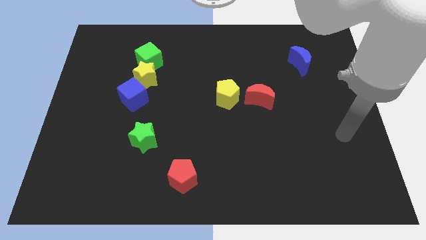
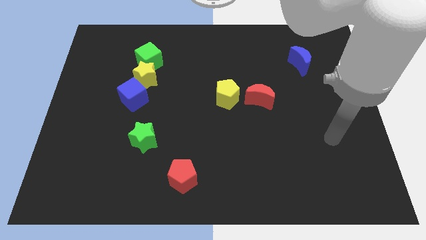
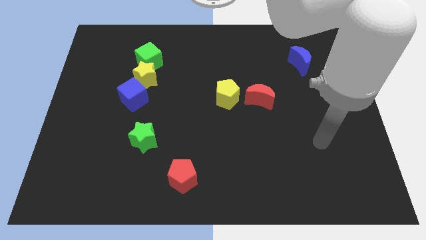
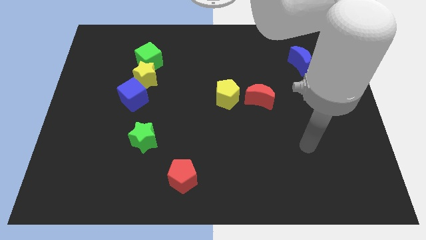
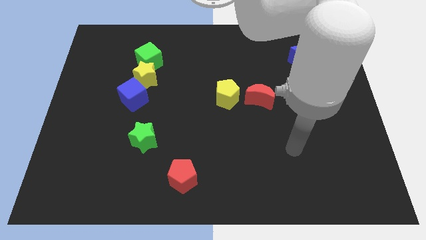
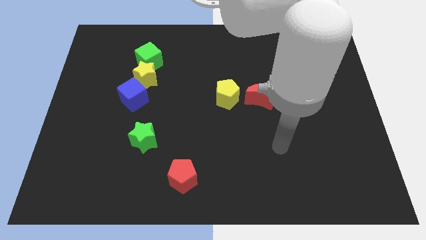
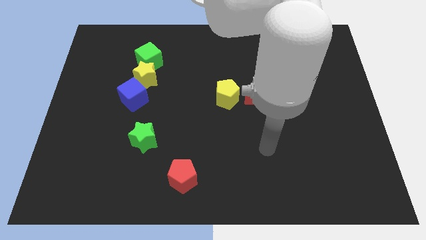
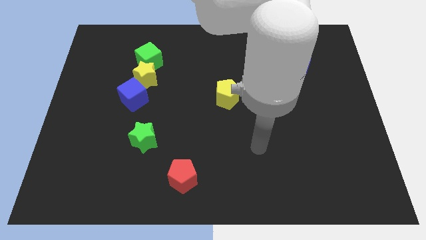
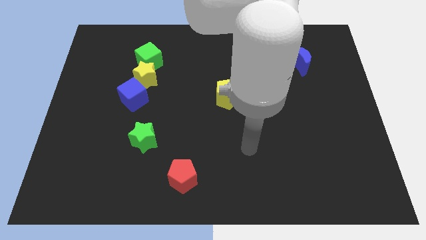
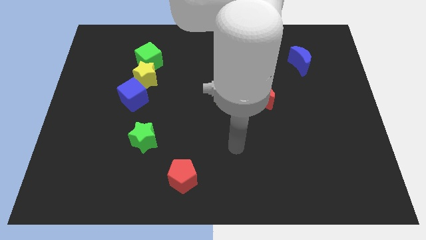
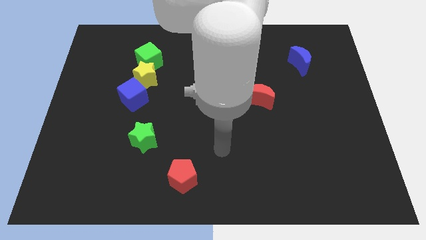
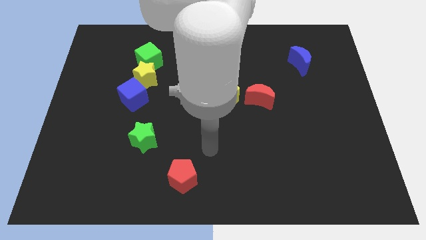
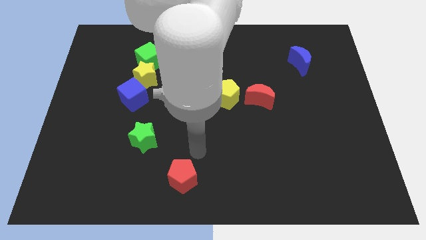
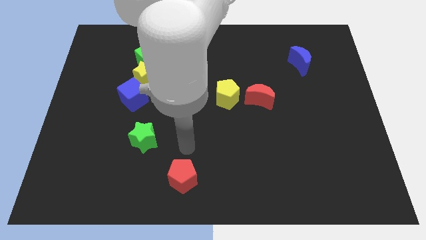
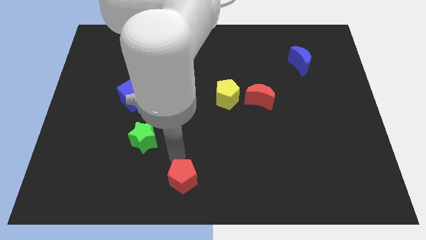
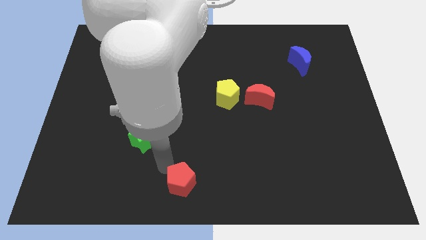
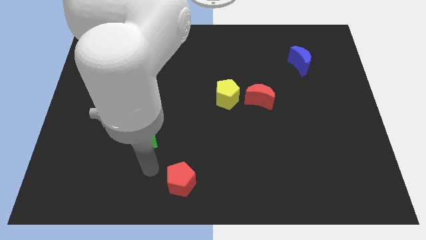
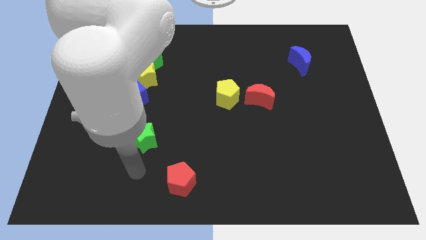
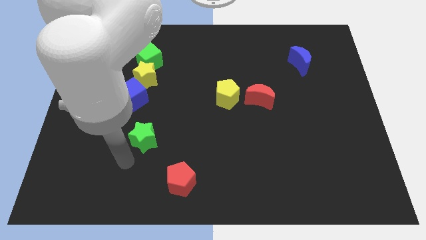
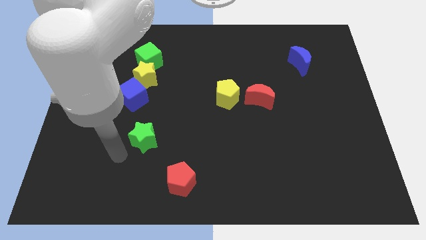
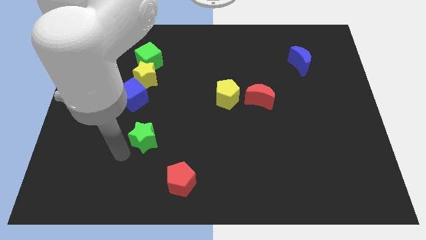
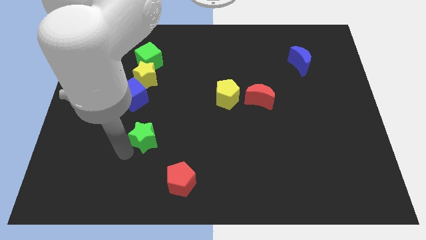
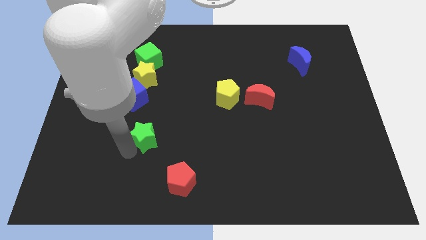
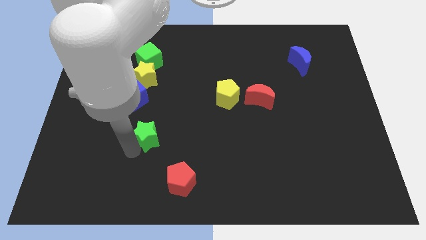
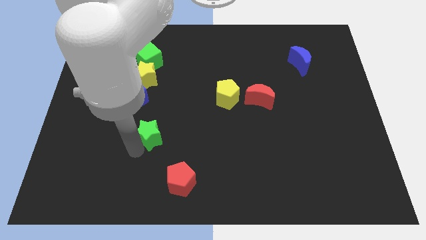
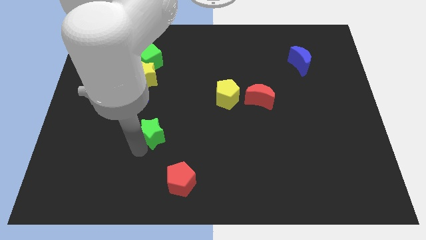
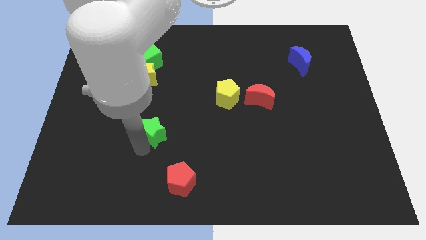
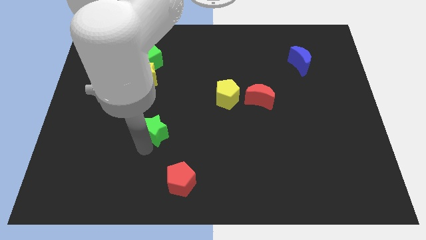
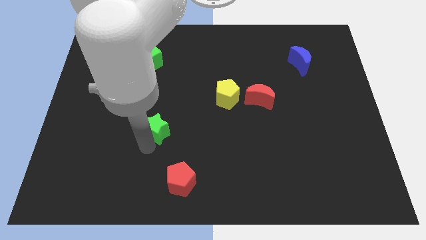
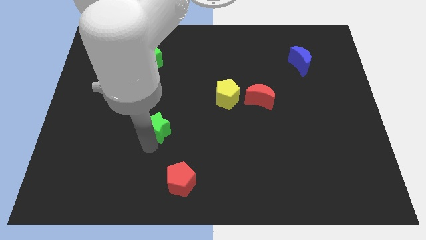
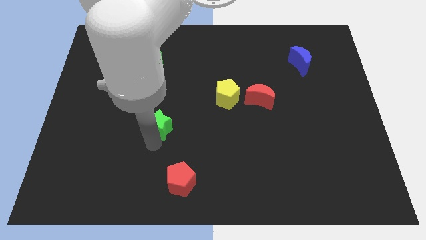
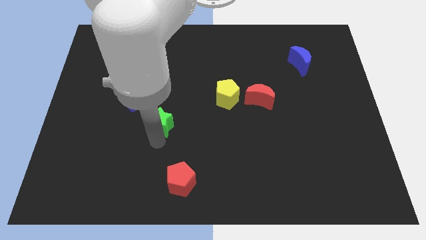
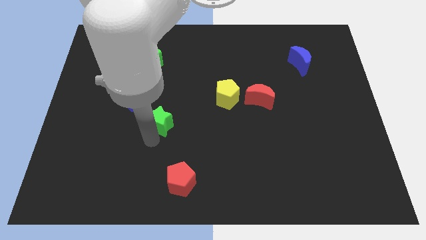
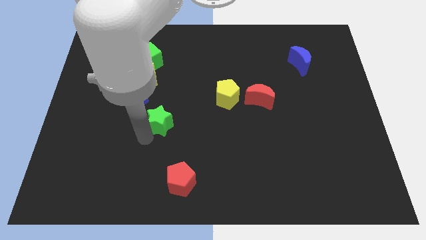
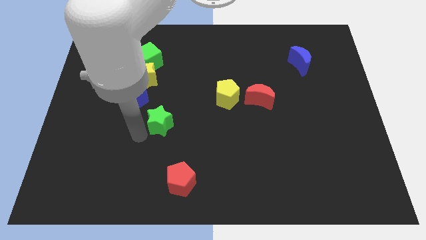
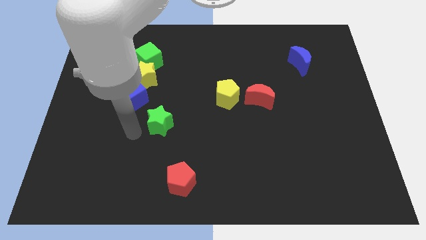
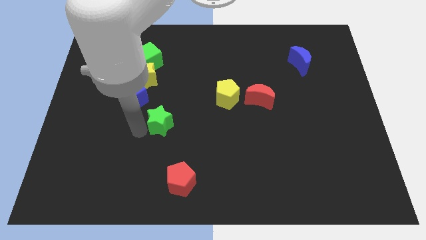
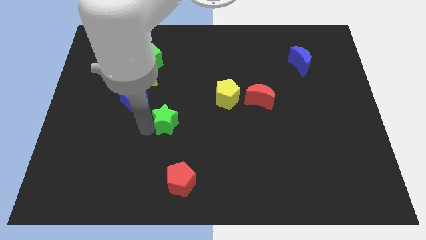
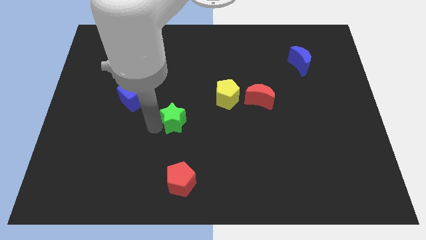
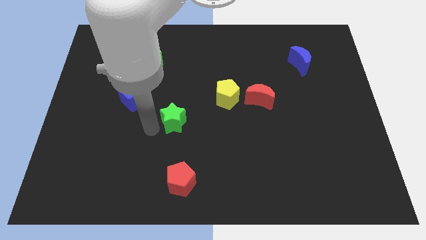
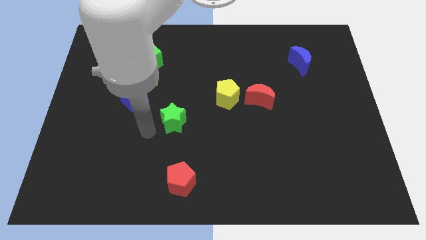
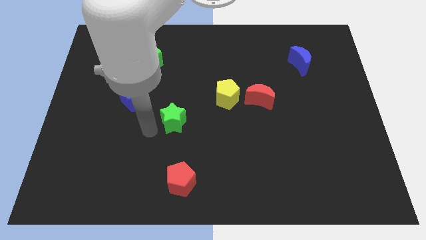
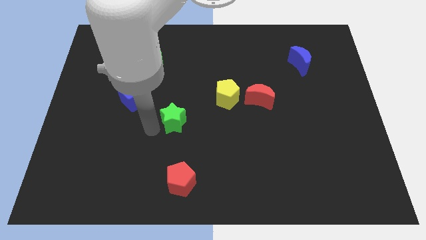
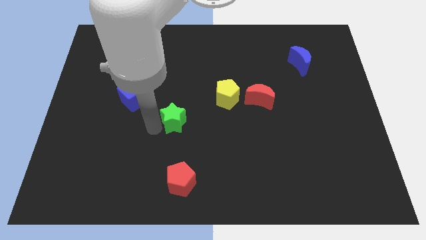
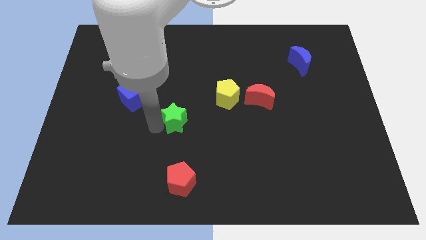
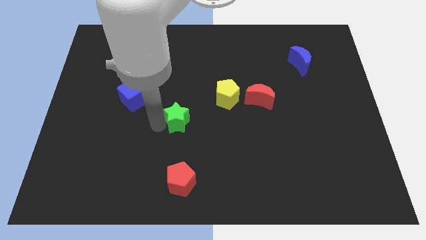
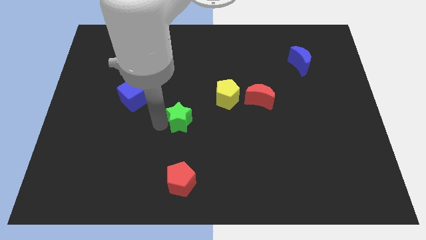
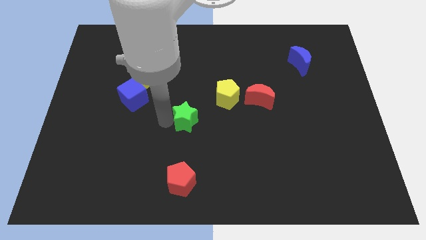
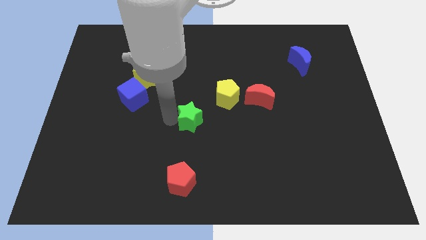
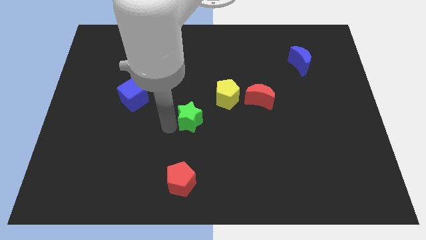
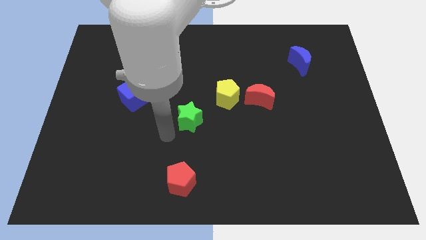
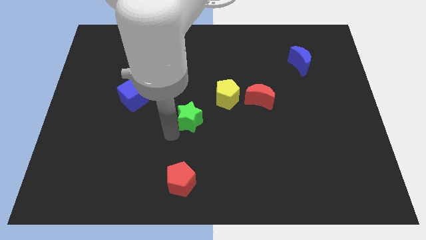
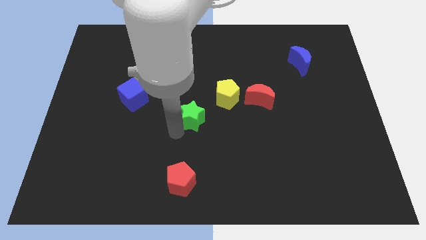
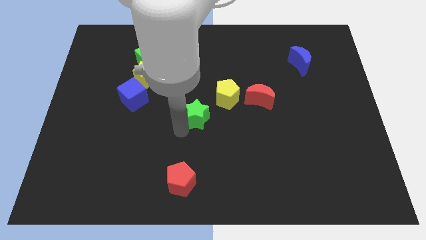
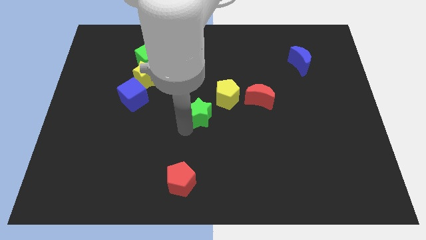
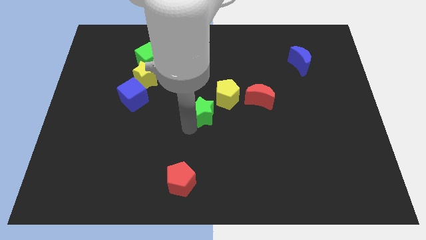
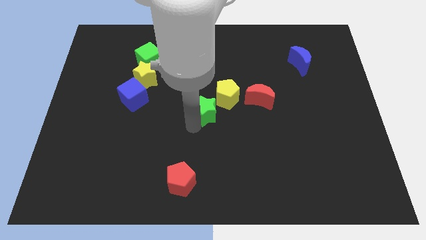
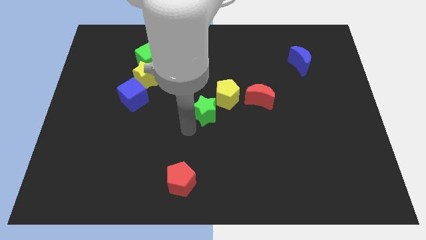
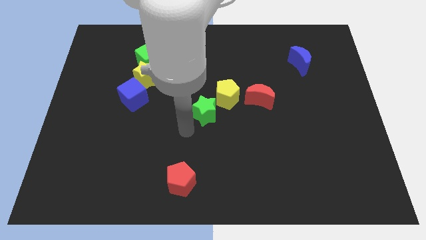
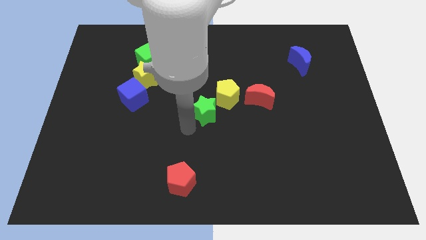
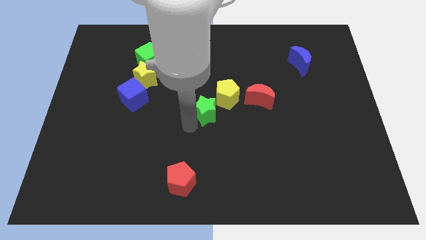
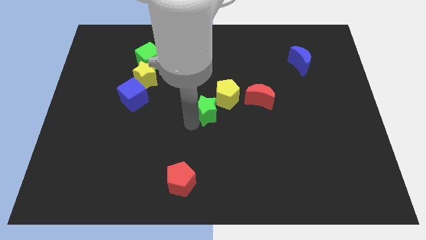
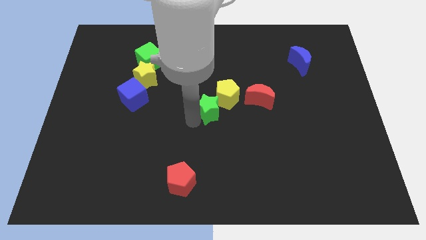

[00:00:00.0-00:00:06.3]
push the green star towards the yellow pentagon

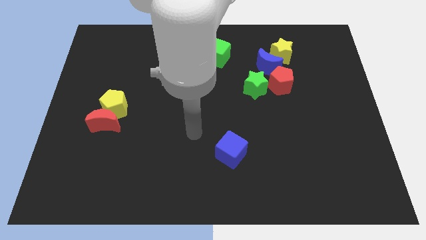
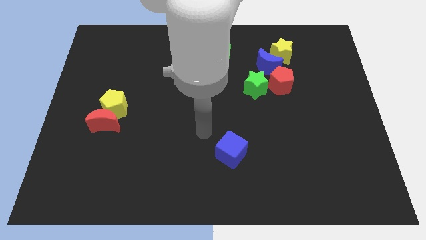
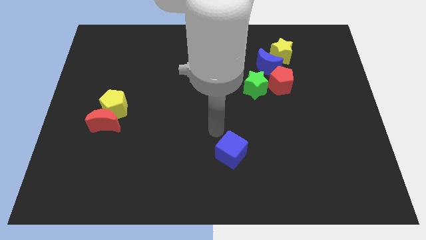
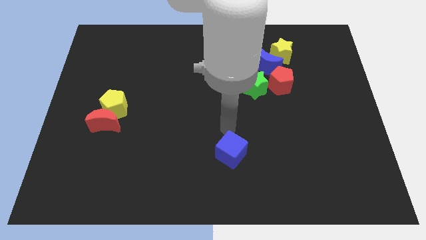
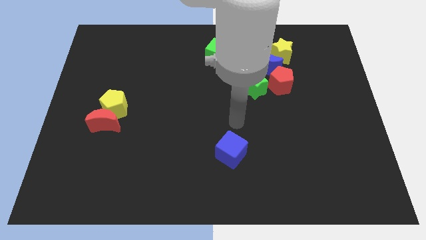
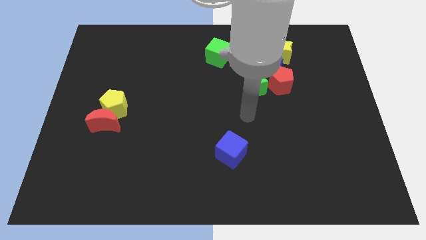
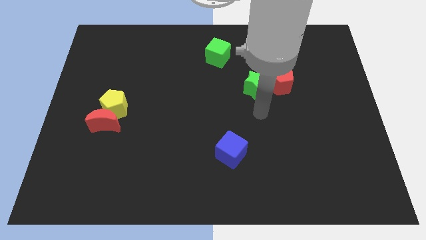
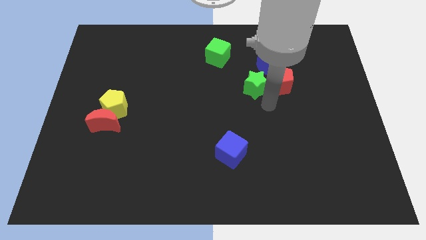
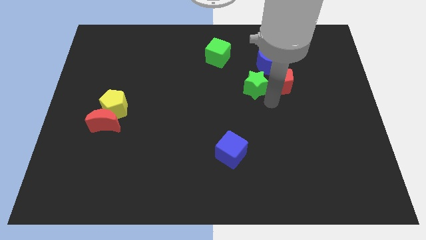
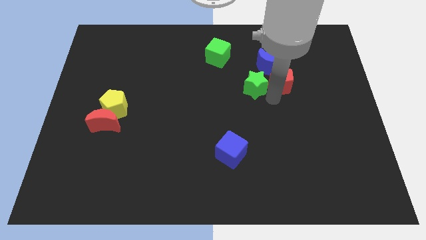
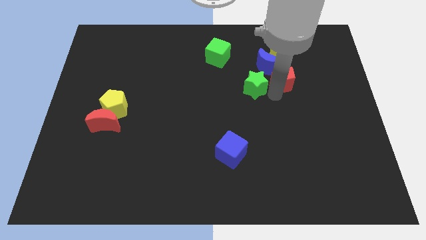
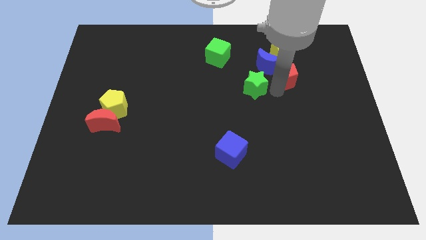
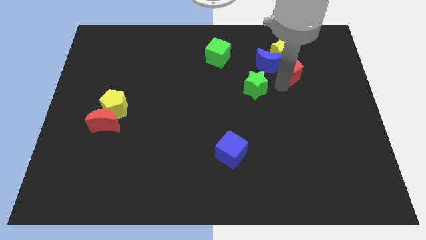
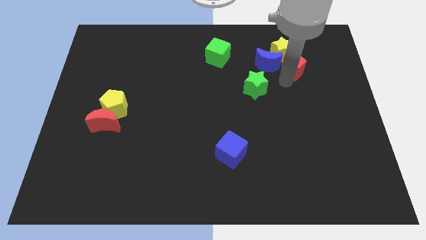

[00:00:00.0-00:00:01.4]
put the red pentagon close to the yellow star
